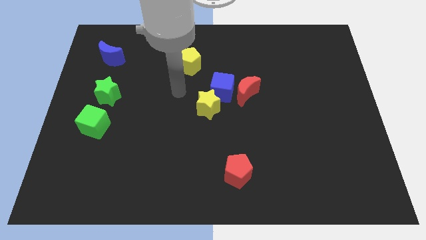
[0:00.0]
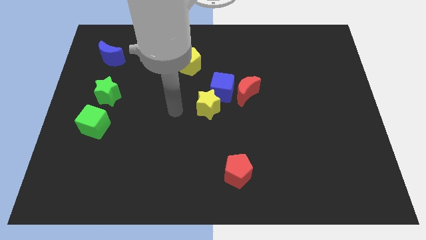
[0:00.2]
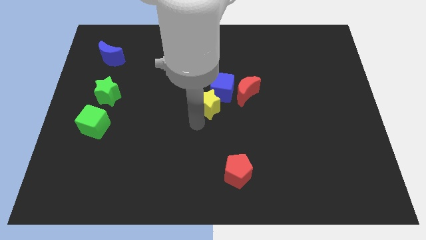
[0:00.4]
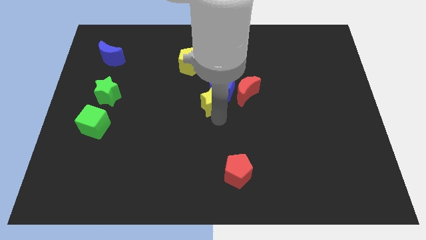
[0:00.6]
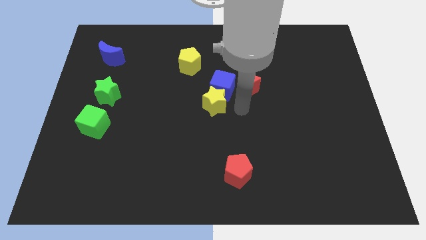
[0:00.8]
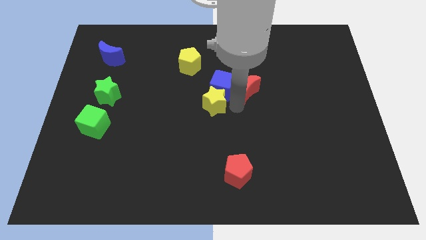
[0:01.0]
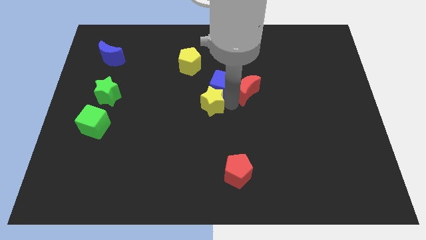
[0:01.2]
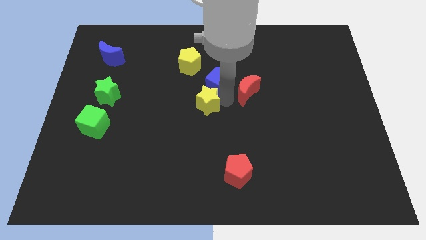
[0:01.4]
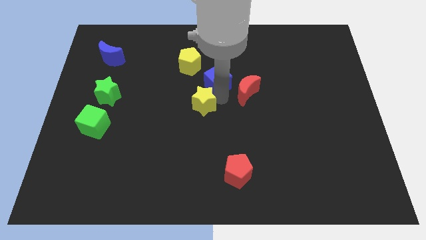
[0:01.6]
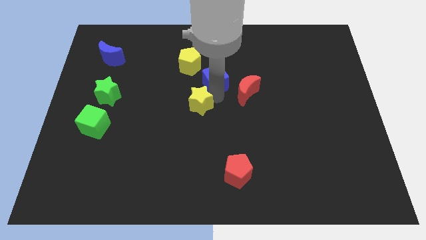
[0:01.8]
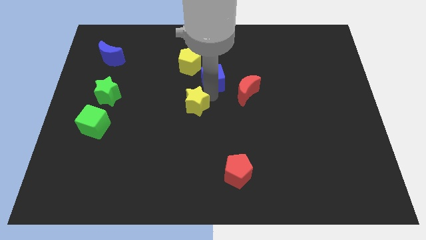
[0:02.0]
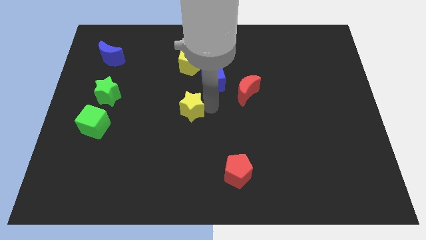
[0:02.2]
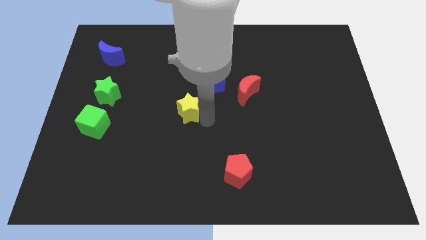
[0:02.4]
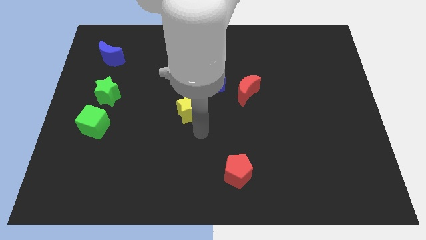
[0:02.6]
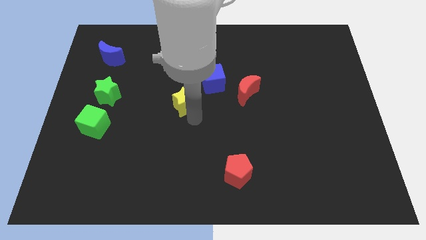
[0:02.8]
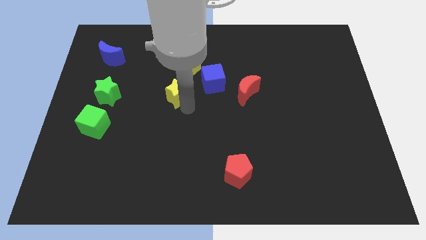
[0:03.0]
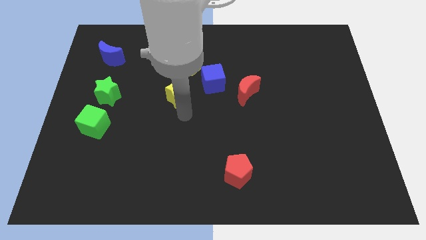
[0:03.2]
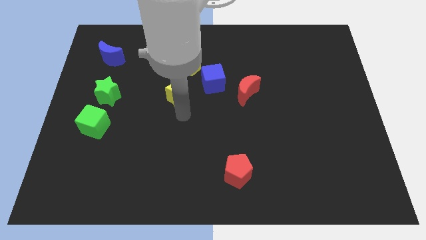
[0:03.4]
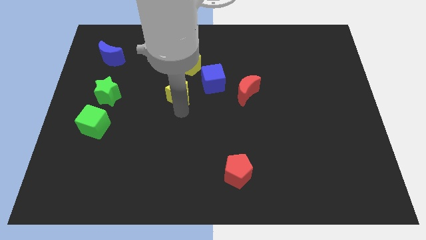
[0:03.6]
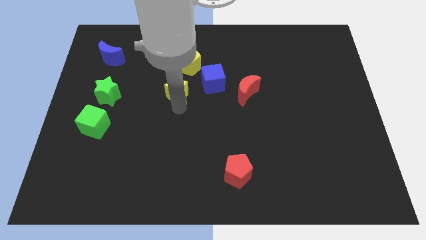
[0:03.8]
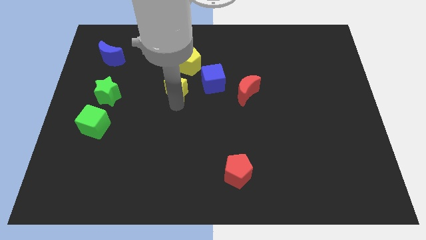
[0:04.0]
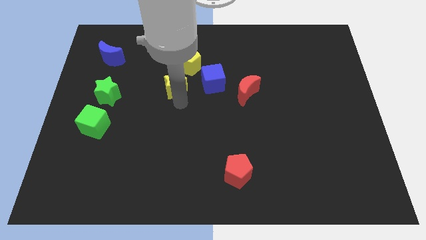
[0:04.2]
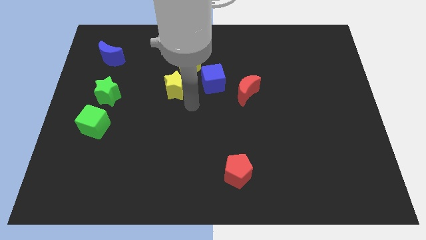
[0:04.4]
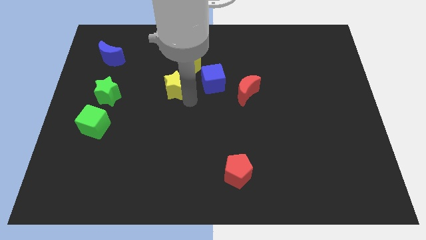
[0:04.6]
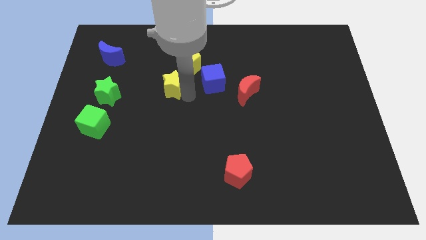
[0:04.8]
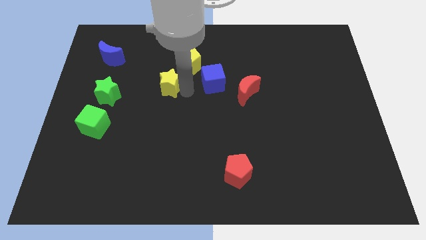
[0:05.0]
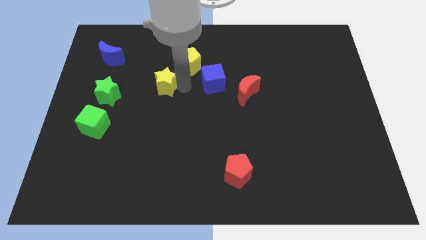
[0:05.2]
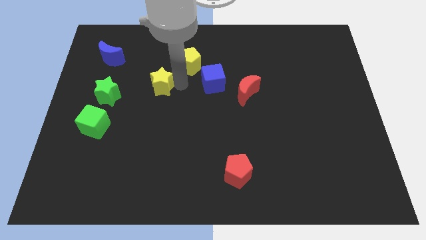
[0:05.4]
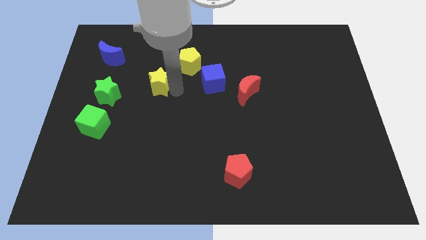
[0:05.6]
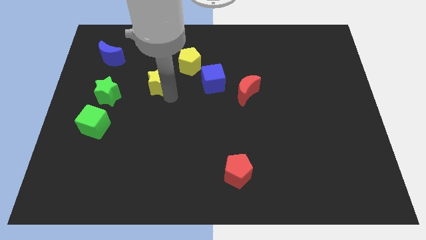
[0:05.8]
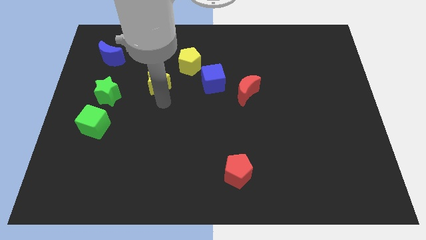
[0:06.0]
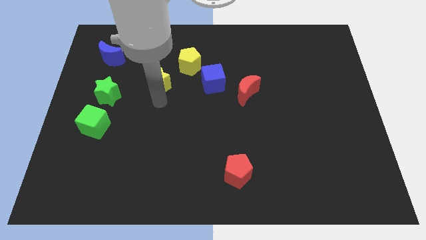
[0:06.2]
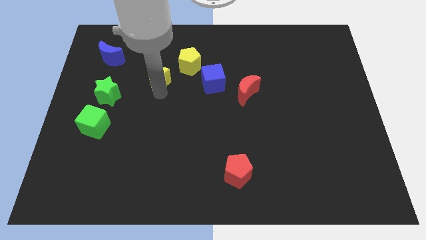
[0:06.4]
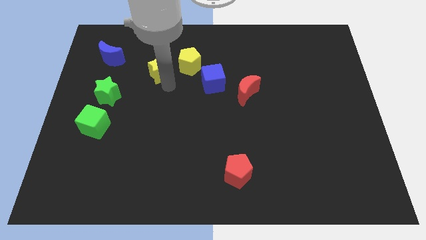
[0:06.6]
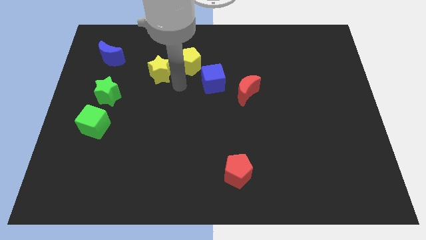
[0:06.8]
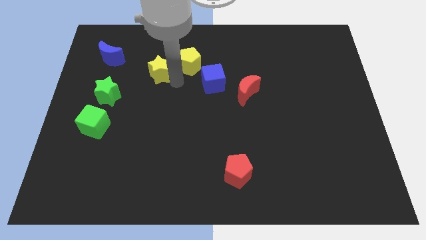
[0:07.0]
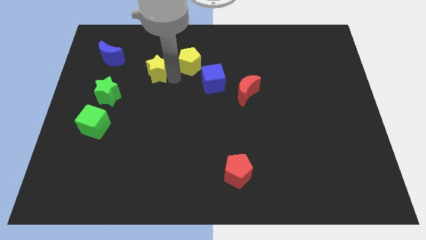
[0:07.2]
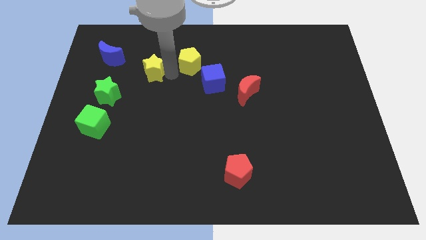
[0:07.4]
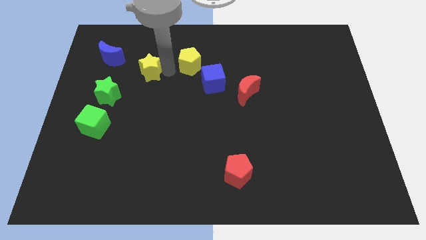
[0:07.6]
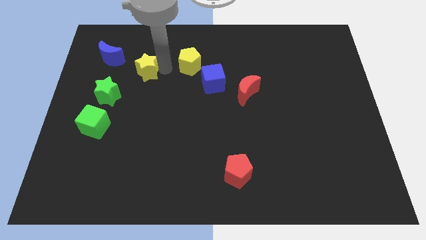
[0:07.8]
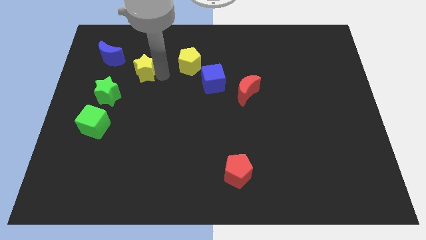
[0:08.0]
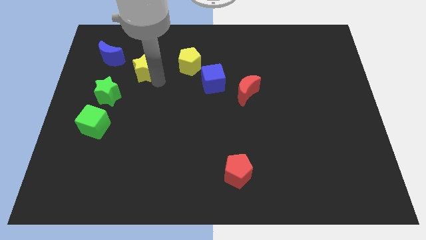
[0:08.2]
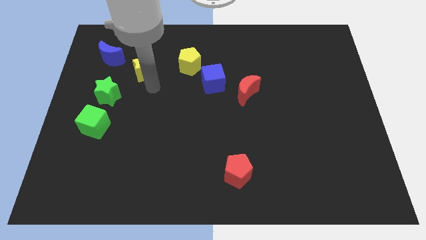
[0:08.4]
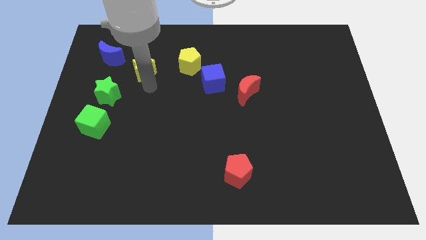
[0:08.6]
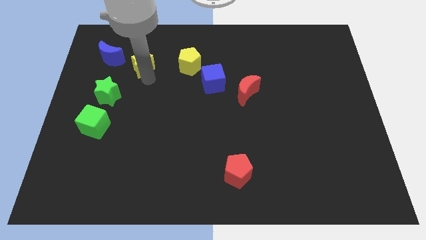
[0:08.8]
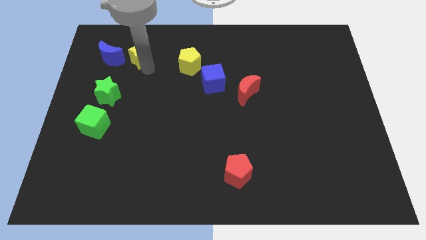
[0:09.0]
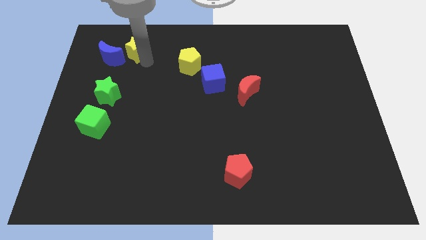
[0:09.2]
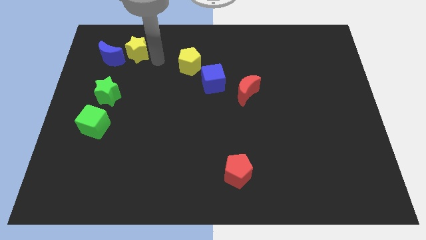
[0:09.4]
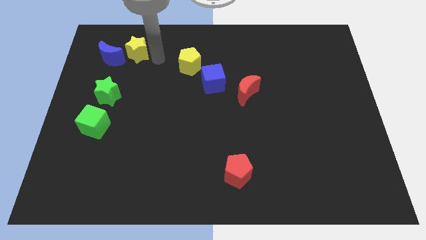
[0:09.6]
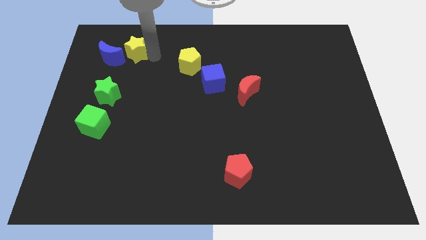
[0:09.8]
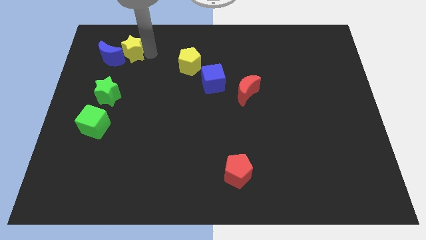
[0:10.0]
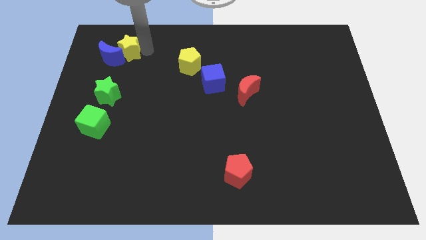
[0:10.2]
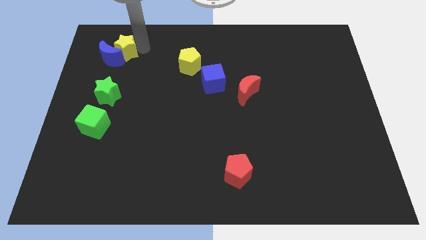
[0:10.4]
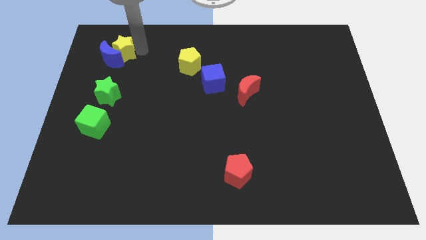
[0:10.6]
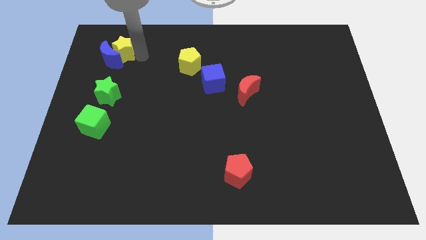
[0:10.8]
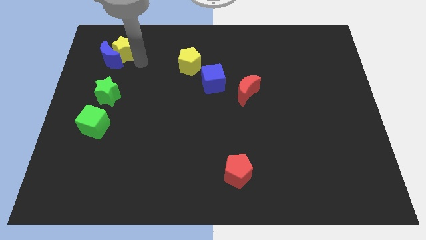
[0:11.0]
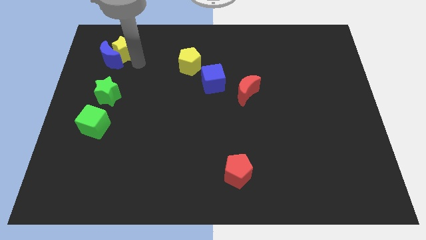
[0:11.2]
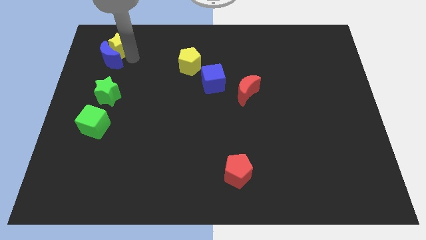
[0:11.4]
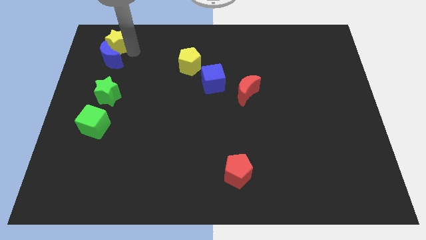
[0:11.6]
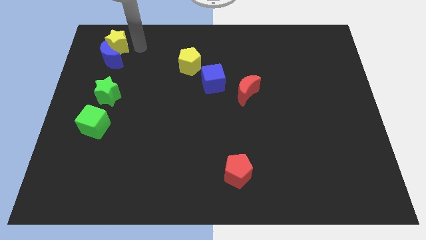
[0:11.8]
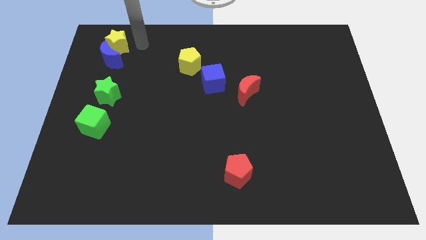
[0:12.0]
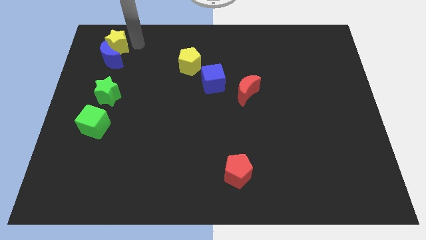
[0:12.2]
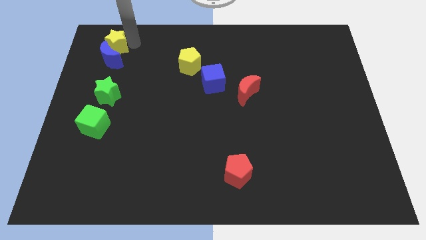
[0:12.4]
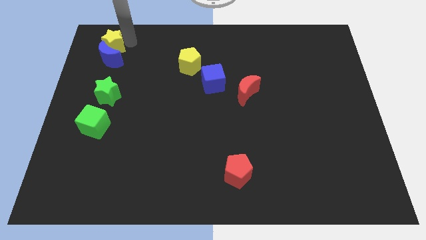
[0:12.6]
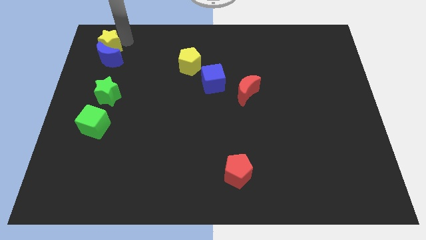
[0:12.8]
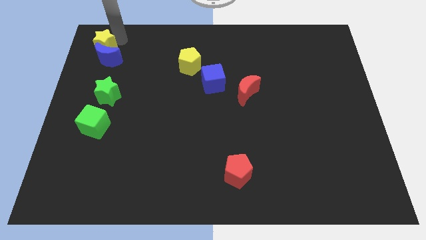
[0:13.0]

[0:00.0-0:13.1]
put the yellow star to the top left

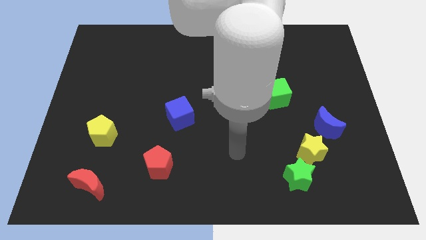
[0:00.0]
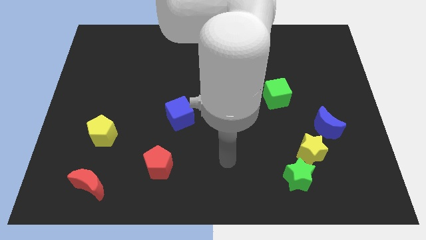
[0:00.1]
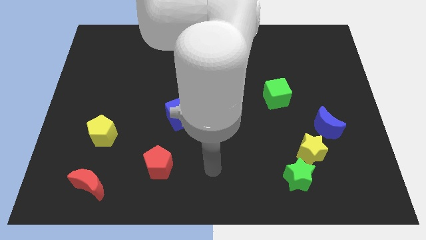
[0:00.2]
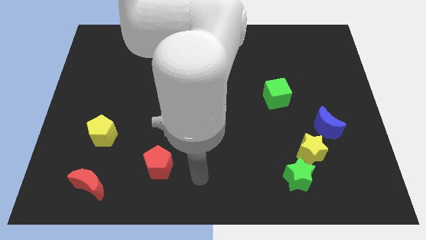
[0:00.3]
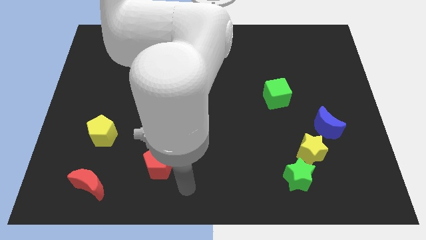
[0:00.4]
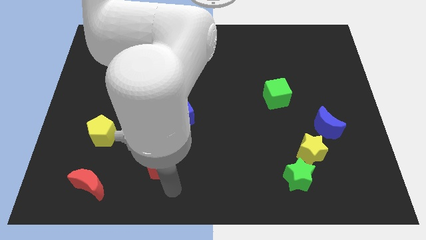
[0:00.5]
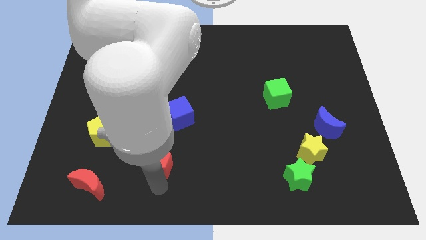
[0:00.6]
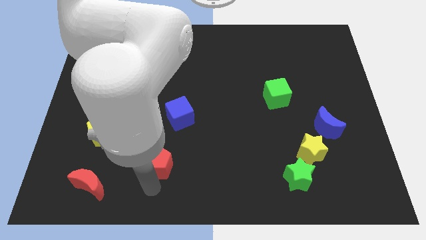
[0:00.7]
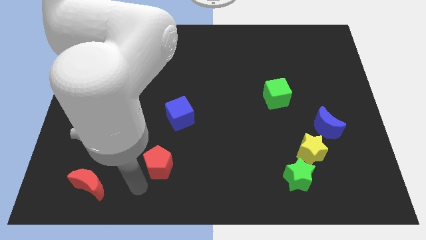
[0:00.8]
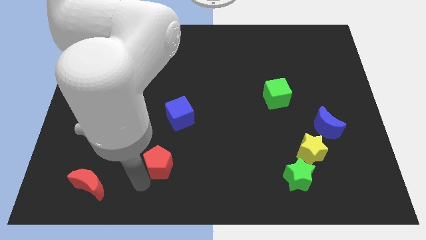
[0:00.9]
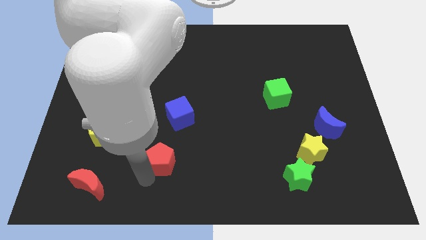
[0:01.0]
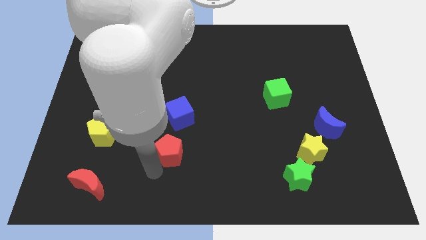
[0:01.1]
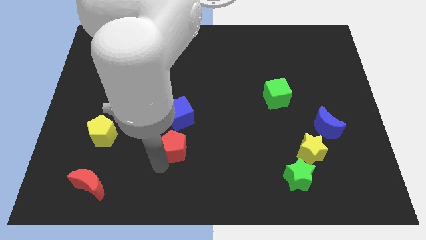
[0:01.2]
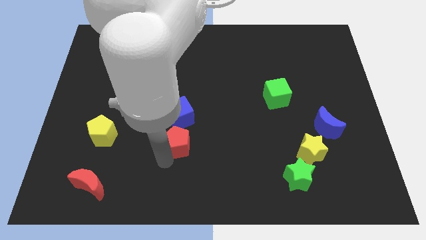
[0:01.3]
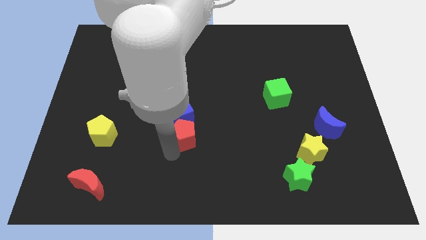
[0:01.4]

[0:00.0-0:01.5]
move the red pentagon to the middle of the board
